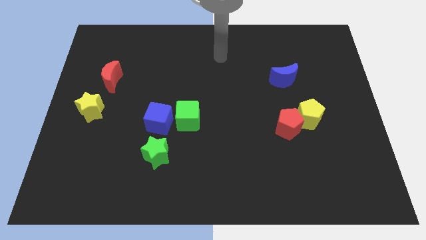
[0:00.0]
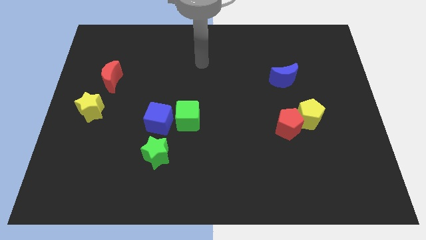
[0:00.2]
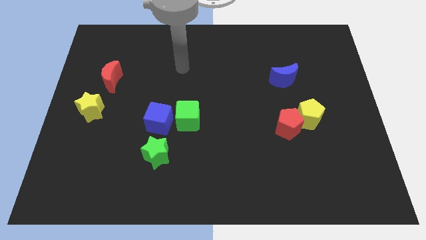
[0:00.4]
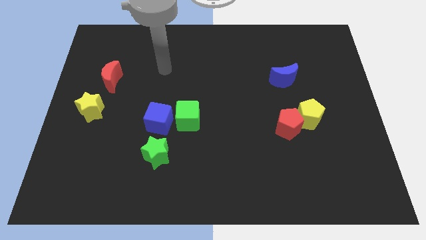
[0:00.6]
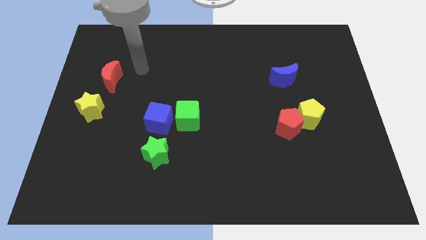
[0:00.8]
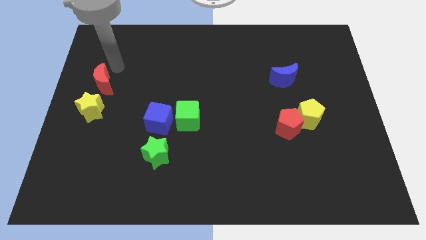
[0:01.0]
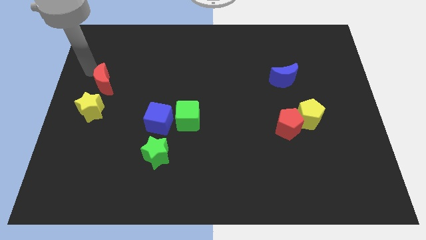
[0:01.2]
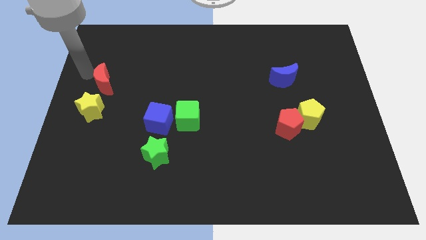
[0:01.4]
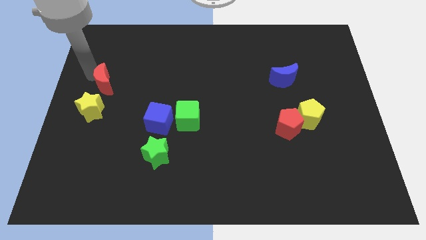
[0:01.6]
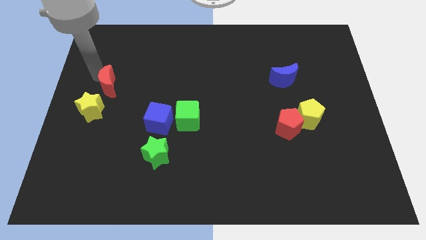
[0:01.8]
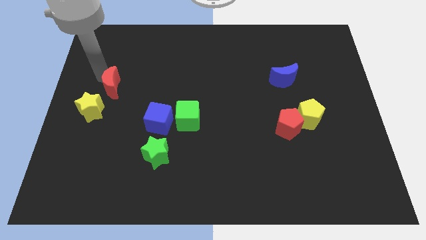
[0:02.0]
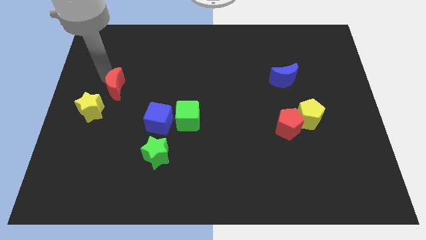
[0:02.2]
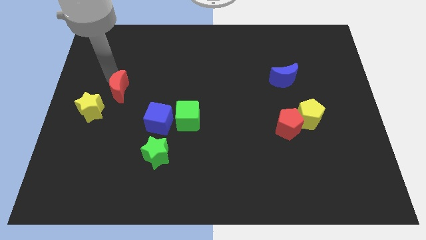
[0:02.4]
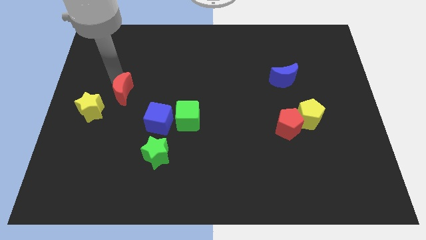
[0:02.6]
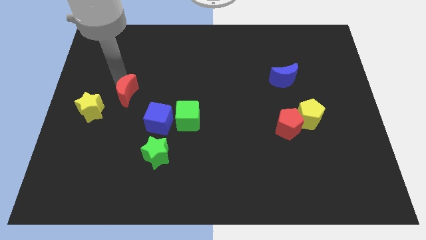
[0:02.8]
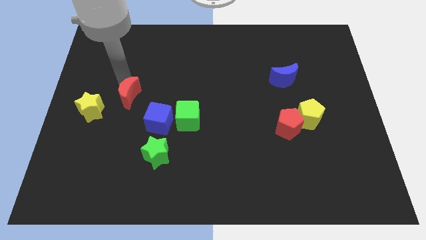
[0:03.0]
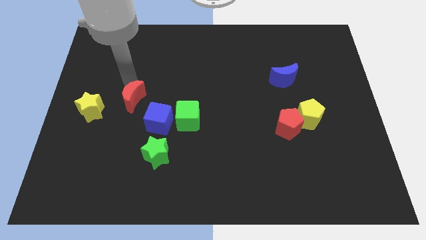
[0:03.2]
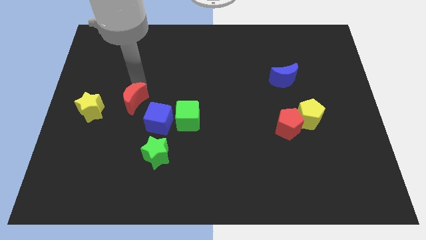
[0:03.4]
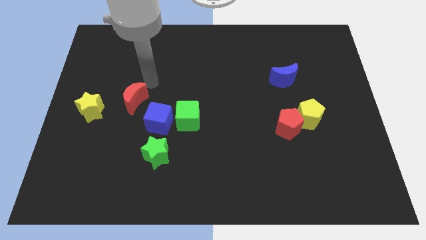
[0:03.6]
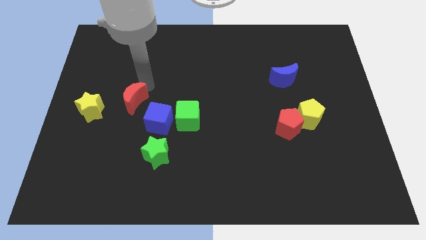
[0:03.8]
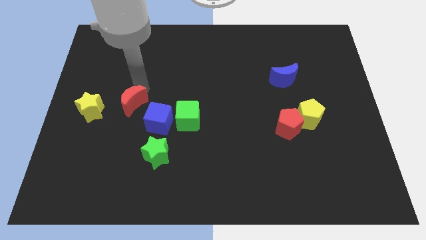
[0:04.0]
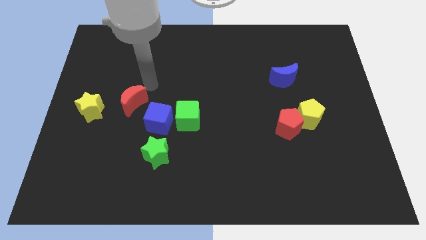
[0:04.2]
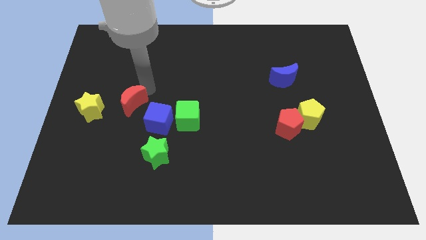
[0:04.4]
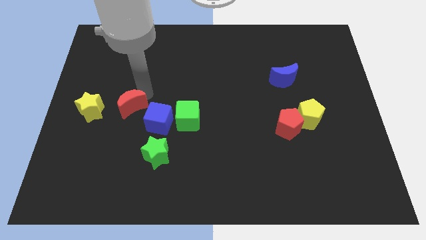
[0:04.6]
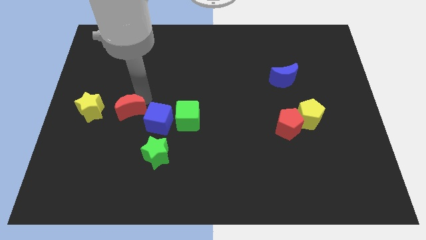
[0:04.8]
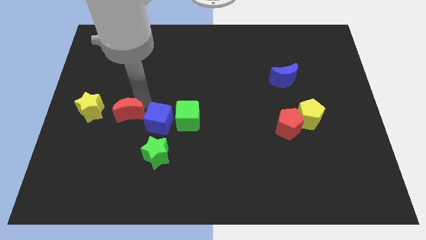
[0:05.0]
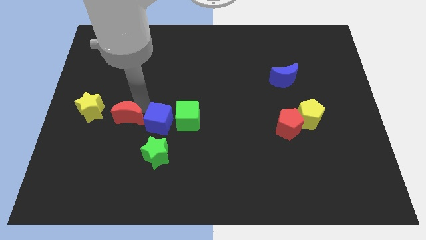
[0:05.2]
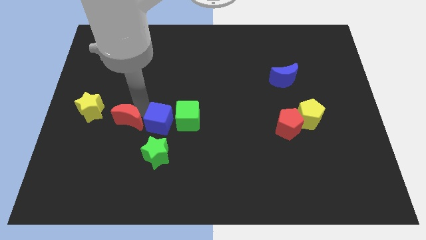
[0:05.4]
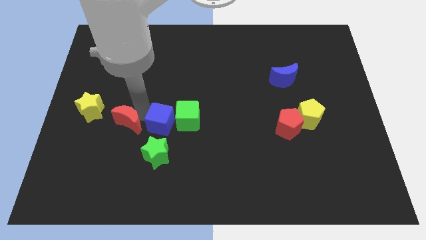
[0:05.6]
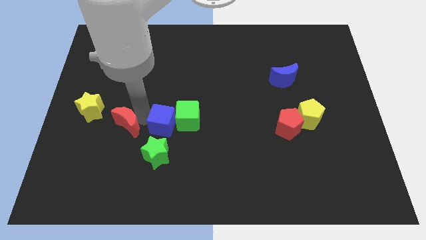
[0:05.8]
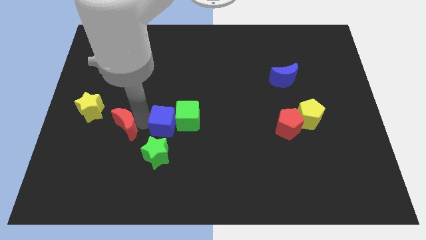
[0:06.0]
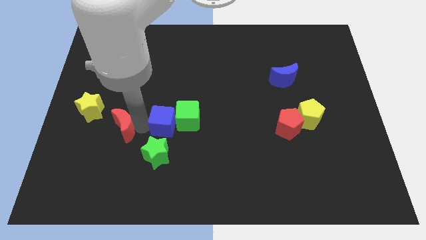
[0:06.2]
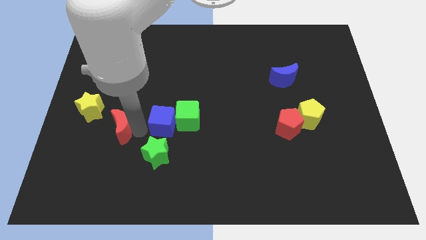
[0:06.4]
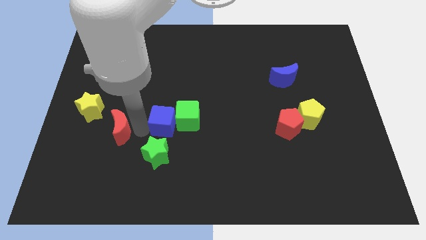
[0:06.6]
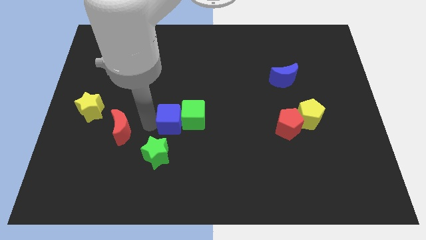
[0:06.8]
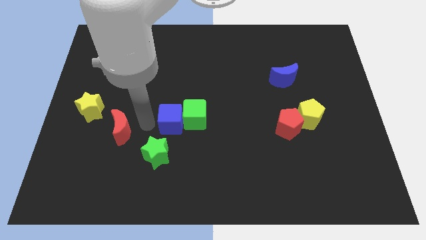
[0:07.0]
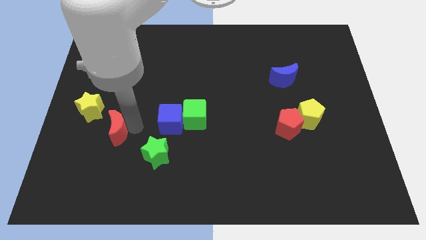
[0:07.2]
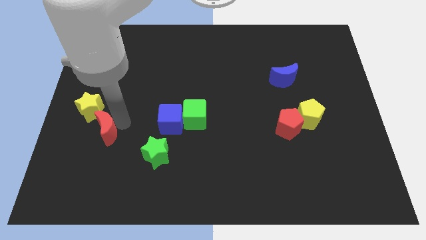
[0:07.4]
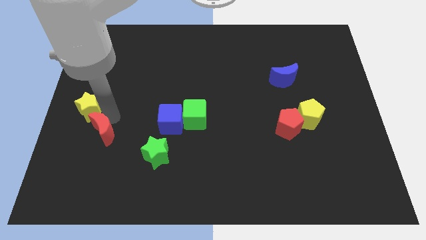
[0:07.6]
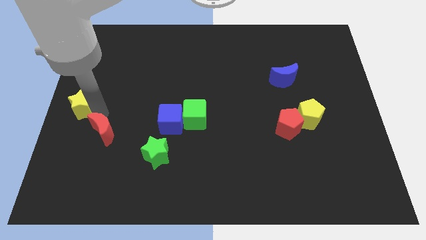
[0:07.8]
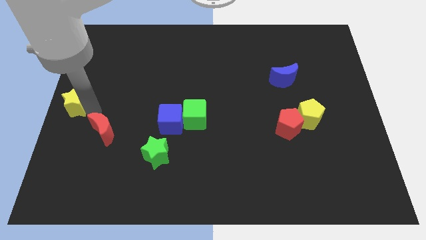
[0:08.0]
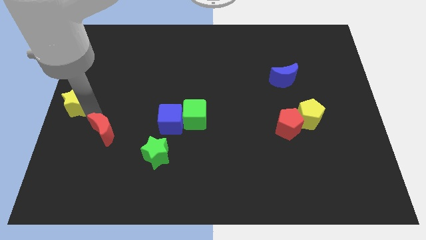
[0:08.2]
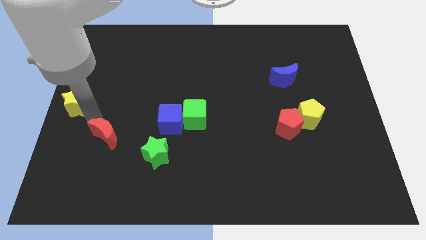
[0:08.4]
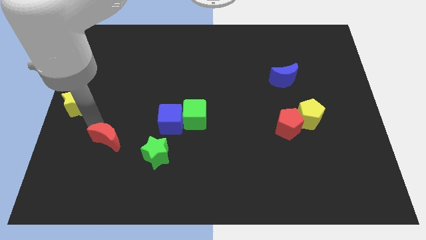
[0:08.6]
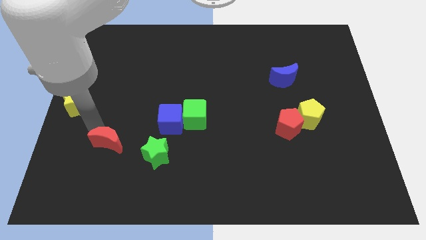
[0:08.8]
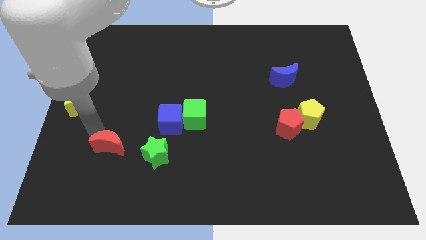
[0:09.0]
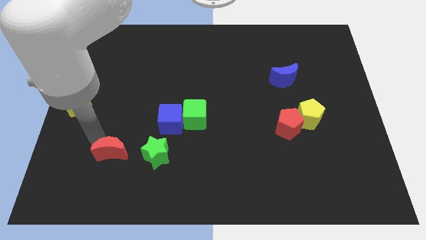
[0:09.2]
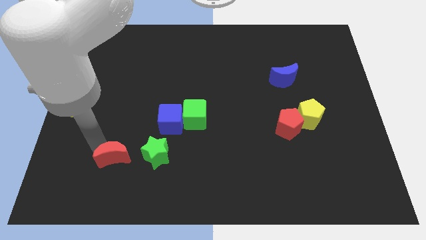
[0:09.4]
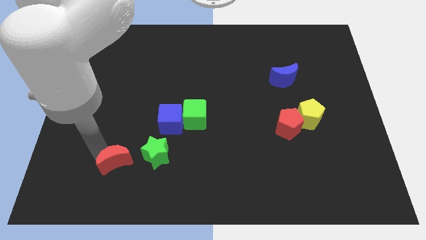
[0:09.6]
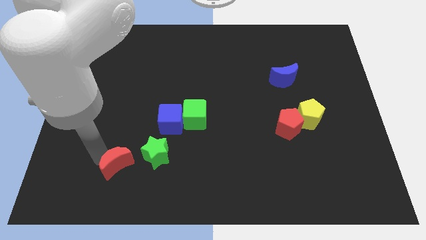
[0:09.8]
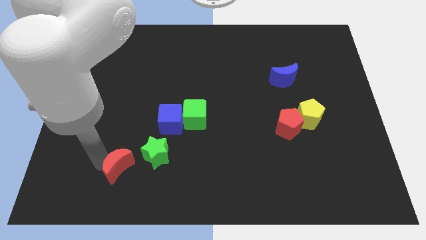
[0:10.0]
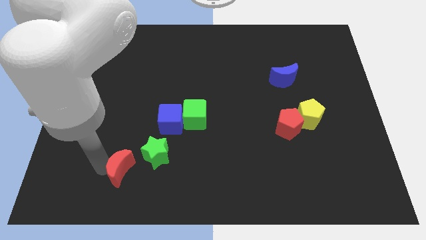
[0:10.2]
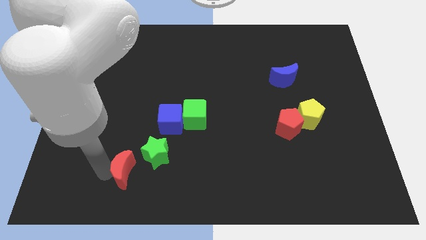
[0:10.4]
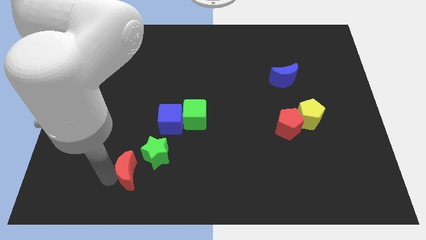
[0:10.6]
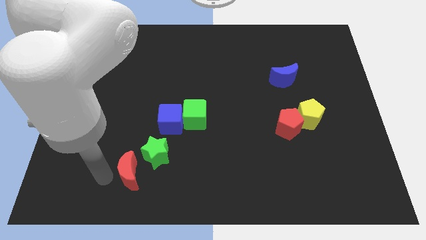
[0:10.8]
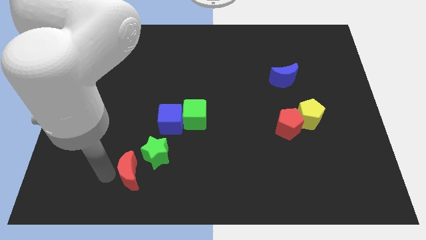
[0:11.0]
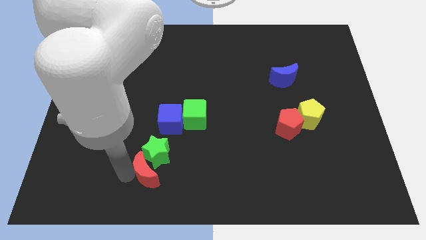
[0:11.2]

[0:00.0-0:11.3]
push the red moon diagonally downwards and to the right

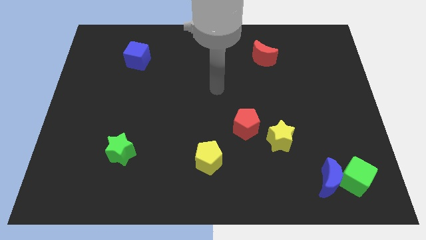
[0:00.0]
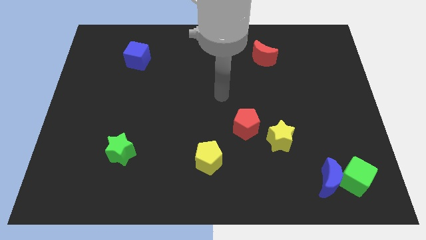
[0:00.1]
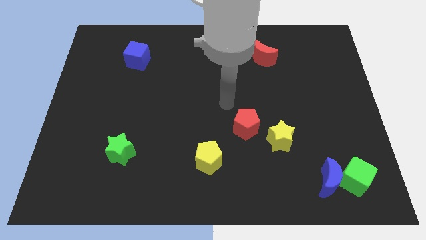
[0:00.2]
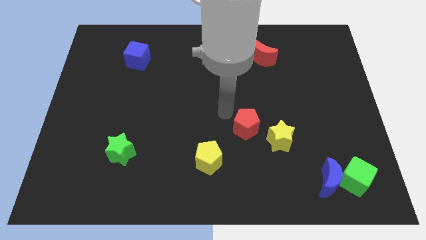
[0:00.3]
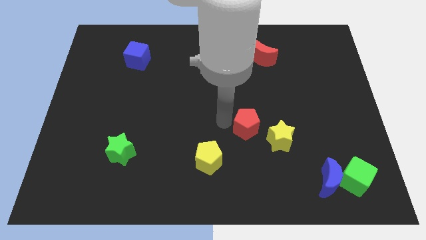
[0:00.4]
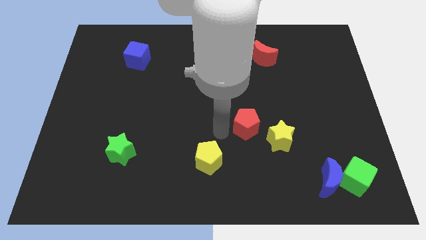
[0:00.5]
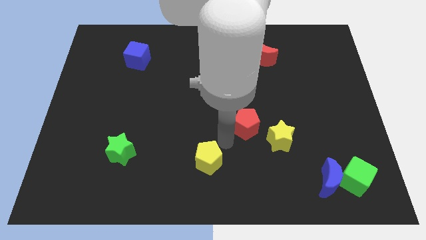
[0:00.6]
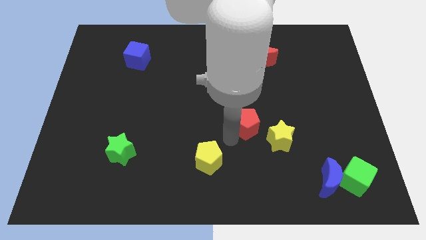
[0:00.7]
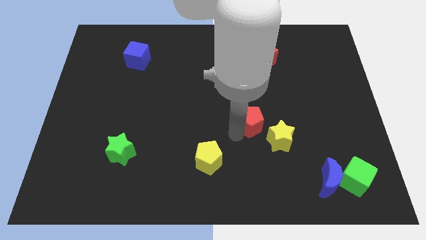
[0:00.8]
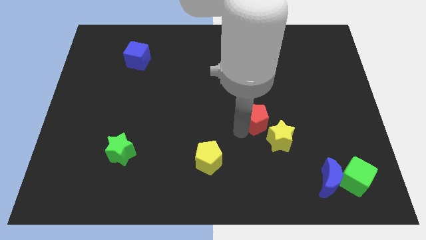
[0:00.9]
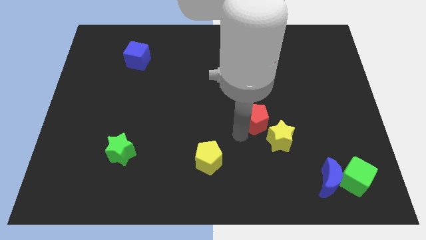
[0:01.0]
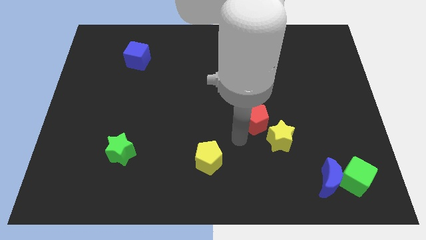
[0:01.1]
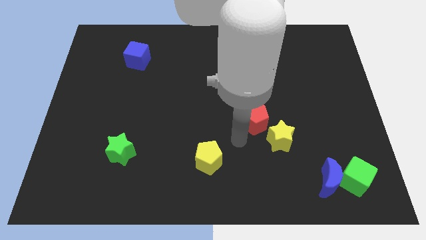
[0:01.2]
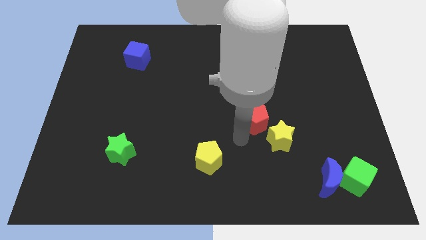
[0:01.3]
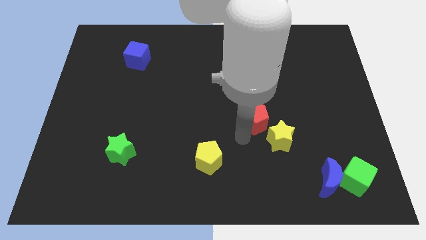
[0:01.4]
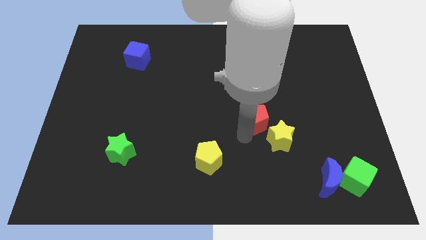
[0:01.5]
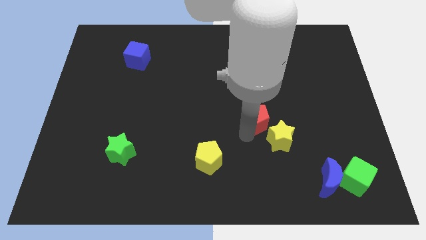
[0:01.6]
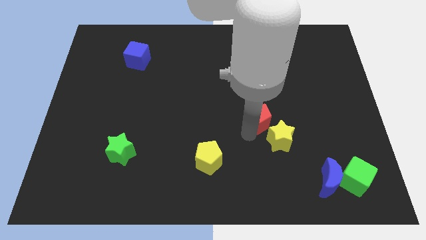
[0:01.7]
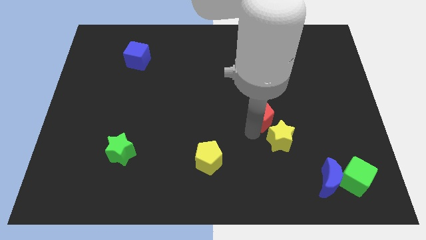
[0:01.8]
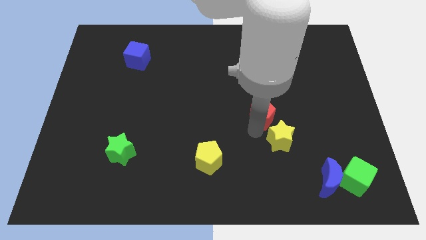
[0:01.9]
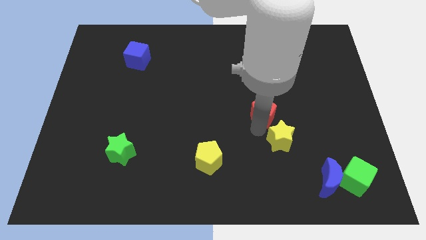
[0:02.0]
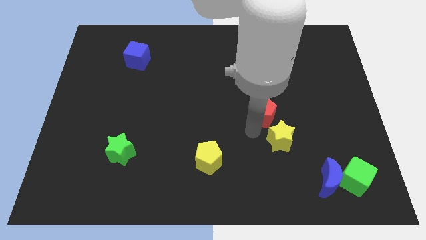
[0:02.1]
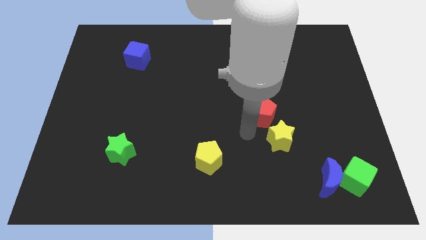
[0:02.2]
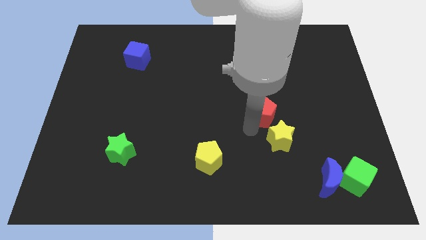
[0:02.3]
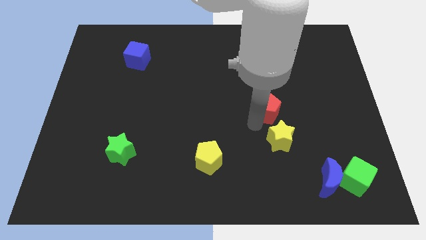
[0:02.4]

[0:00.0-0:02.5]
slightly push the red pentagon up and right diagonally
